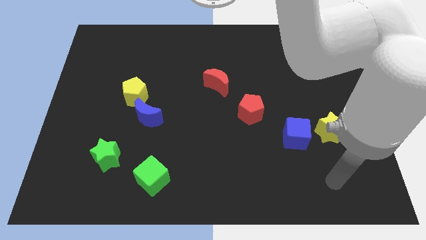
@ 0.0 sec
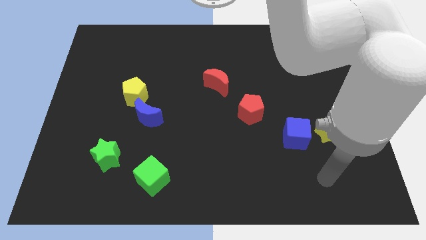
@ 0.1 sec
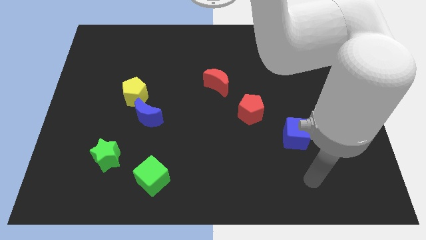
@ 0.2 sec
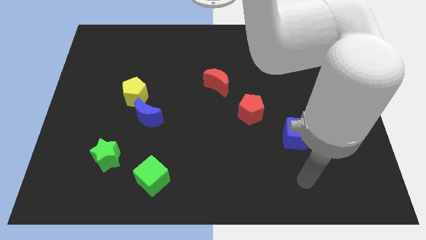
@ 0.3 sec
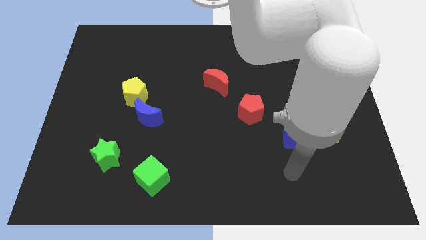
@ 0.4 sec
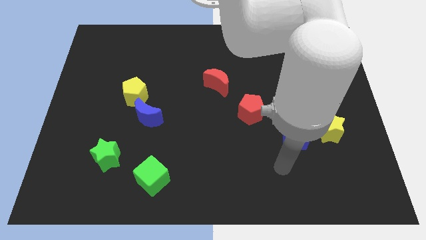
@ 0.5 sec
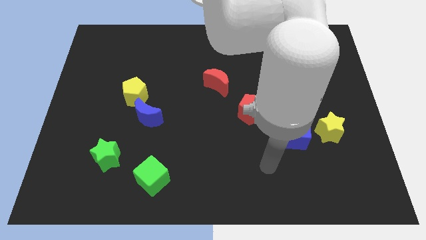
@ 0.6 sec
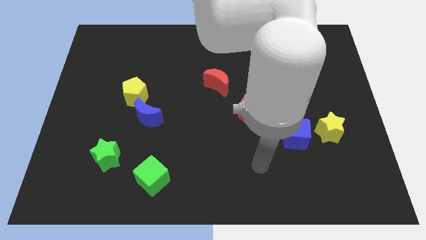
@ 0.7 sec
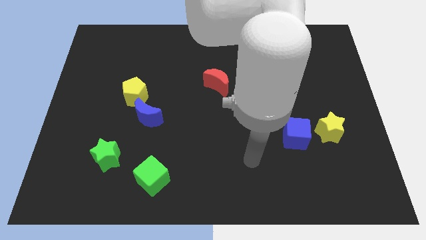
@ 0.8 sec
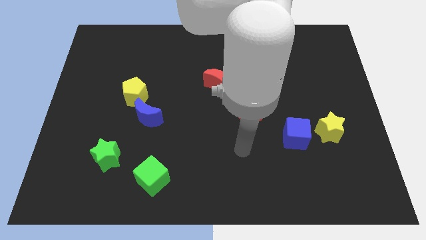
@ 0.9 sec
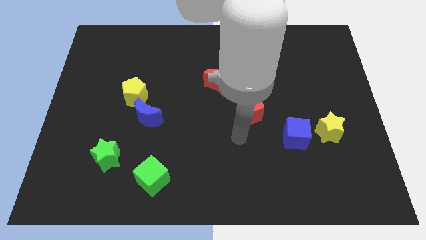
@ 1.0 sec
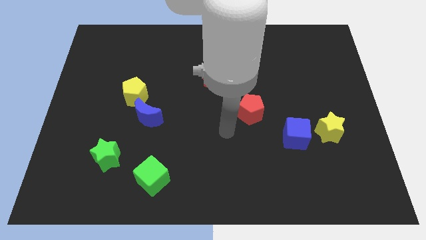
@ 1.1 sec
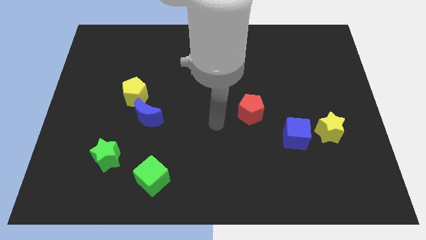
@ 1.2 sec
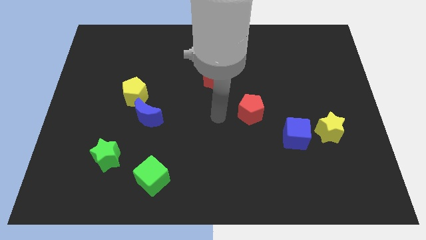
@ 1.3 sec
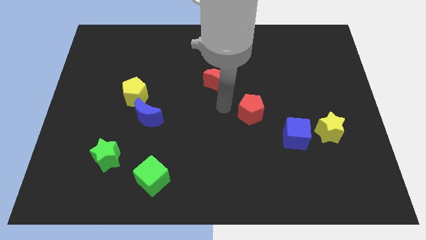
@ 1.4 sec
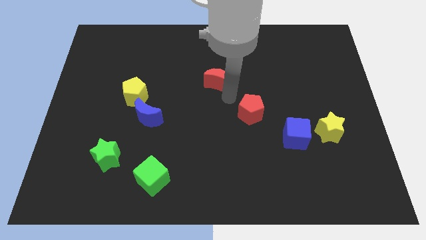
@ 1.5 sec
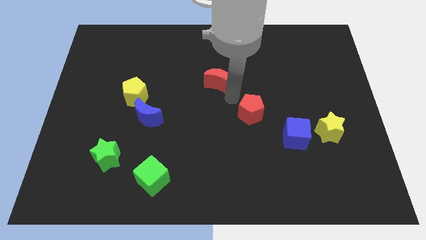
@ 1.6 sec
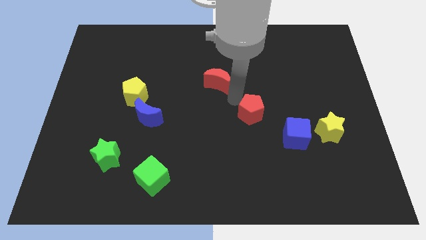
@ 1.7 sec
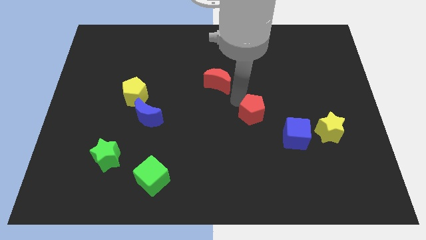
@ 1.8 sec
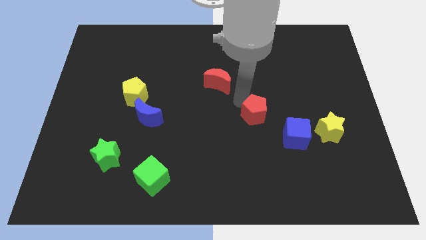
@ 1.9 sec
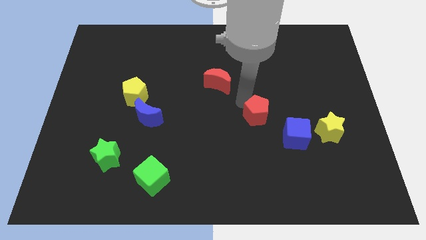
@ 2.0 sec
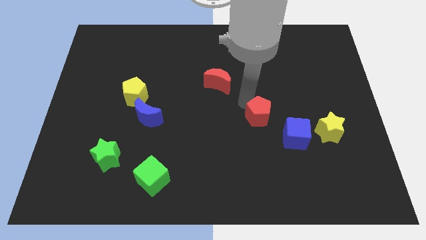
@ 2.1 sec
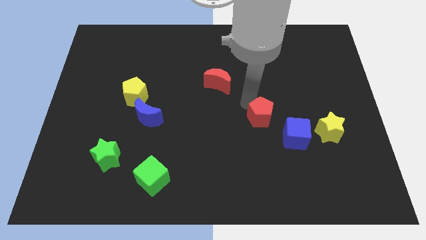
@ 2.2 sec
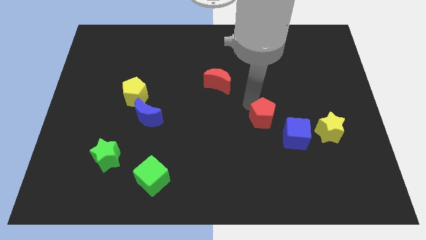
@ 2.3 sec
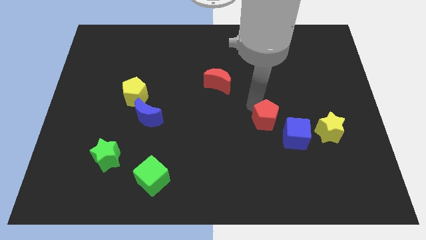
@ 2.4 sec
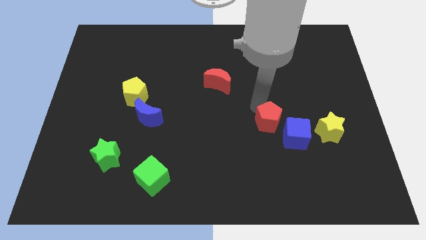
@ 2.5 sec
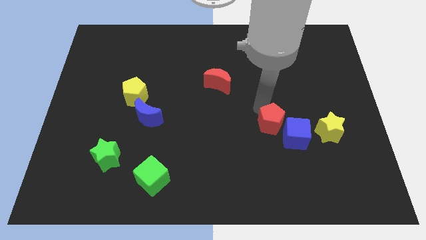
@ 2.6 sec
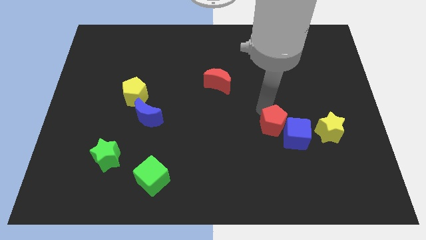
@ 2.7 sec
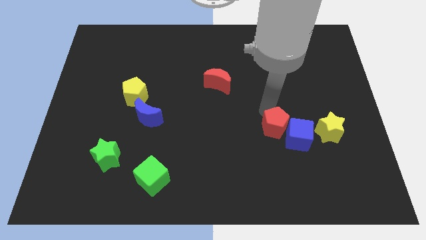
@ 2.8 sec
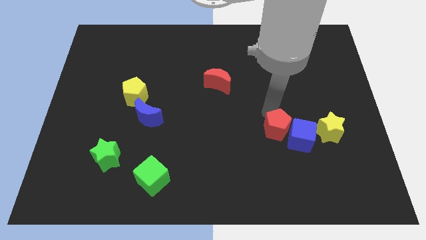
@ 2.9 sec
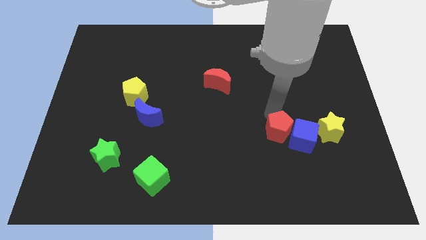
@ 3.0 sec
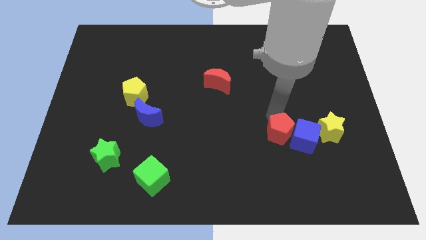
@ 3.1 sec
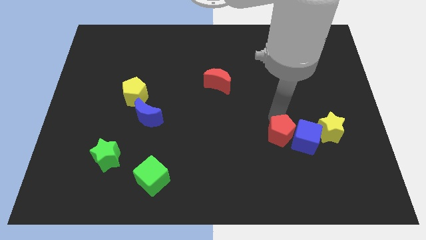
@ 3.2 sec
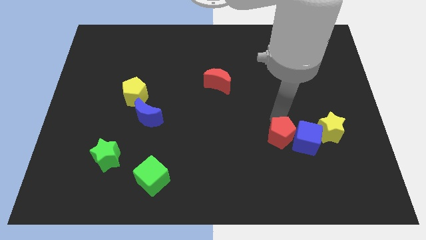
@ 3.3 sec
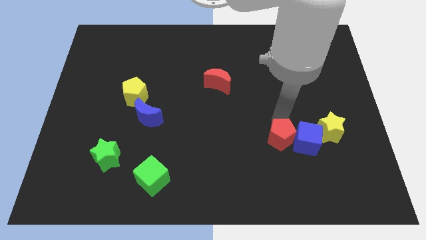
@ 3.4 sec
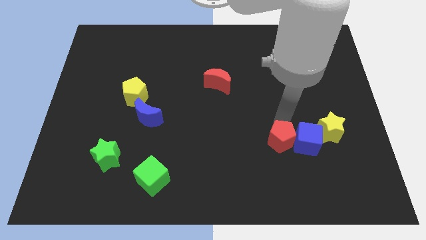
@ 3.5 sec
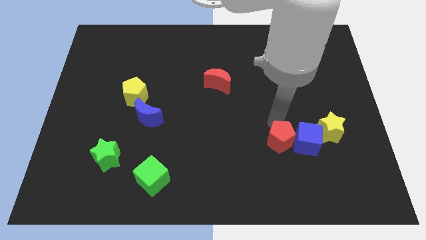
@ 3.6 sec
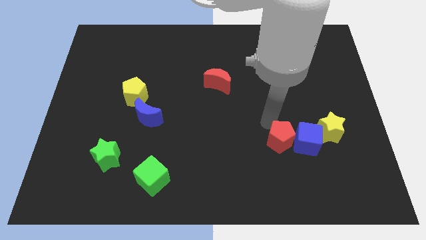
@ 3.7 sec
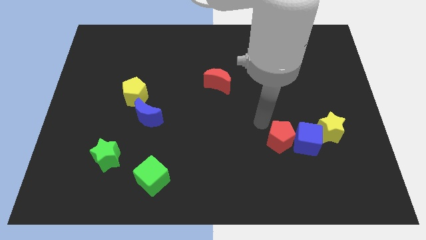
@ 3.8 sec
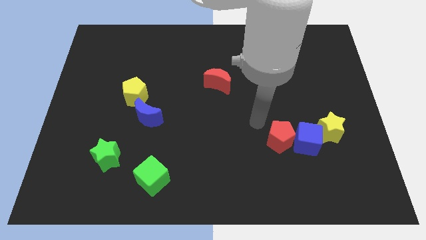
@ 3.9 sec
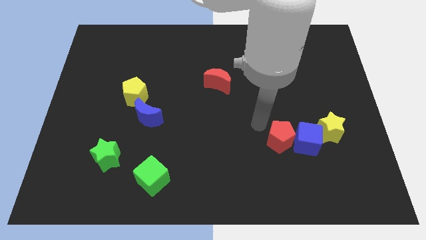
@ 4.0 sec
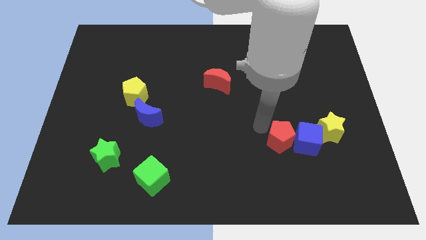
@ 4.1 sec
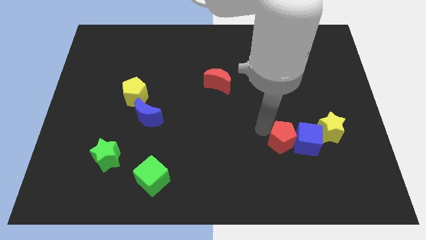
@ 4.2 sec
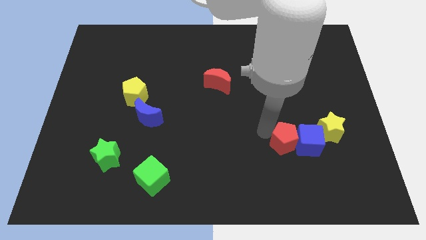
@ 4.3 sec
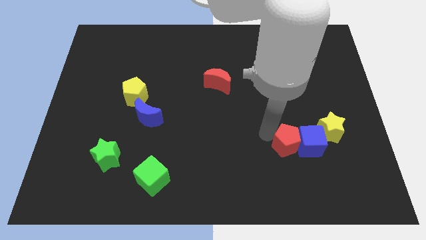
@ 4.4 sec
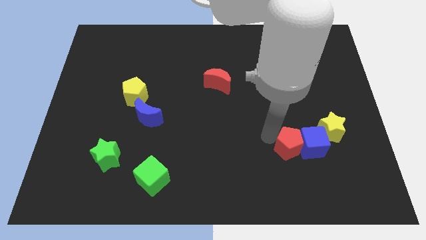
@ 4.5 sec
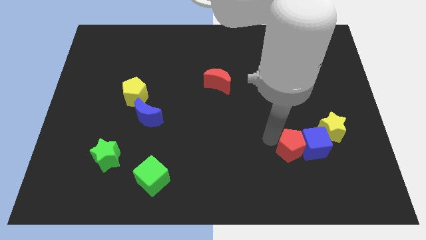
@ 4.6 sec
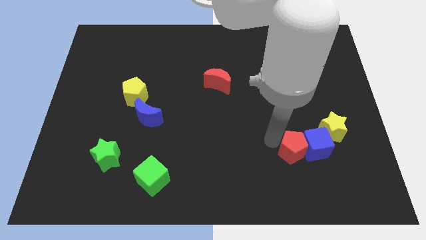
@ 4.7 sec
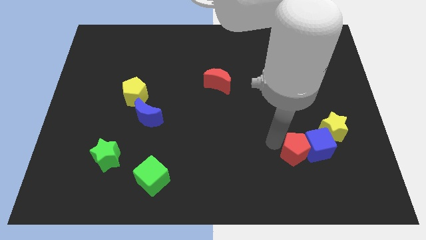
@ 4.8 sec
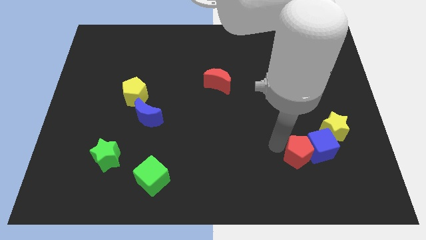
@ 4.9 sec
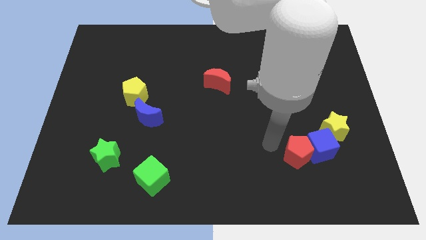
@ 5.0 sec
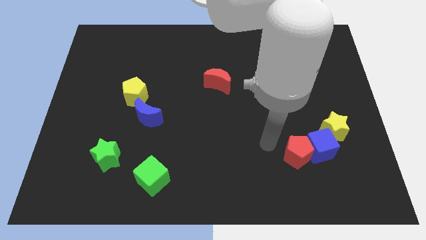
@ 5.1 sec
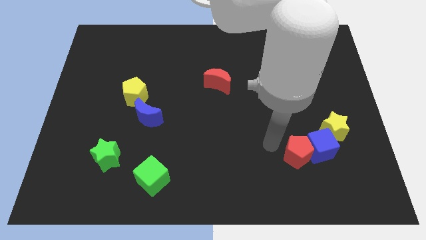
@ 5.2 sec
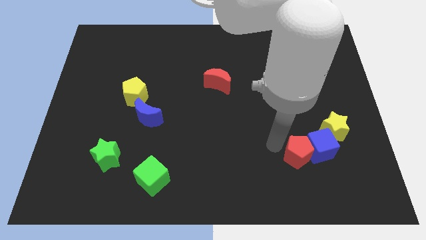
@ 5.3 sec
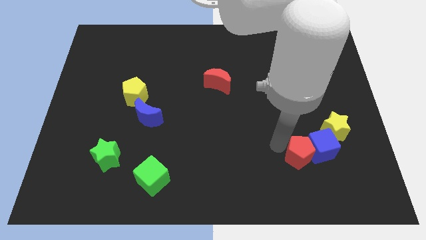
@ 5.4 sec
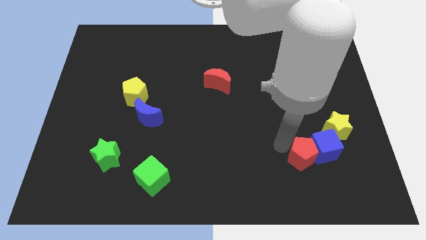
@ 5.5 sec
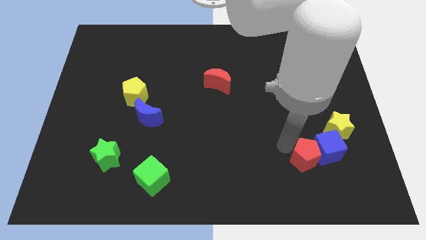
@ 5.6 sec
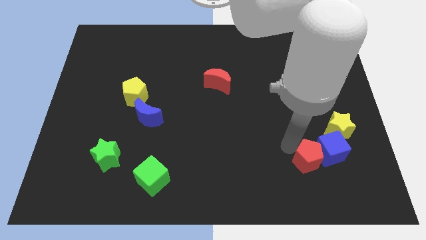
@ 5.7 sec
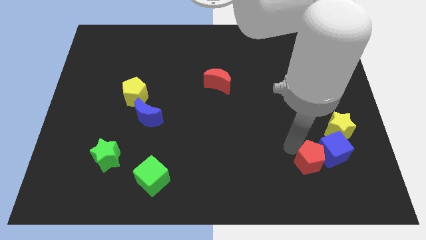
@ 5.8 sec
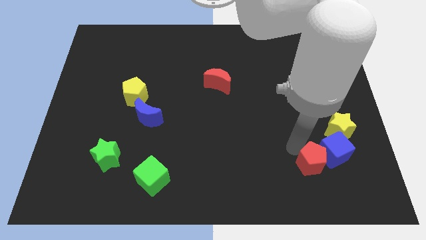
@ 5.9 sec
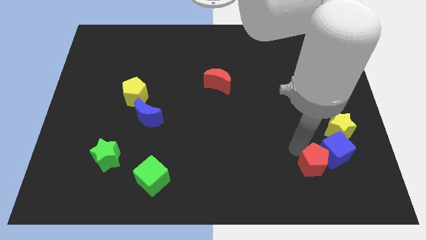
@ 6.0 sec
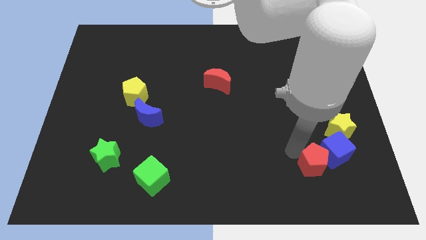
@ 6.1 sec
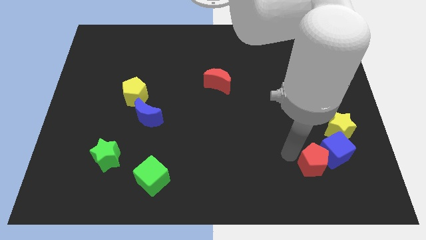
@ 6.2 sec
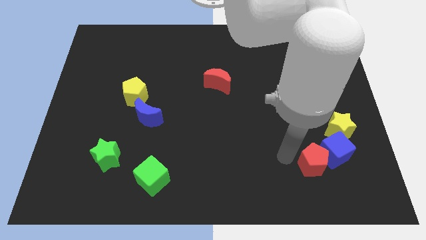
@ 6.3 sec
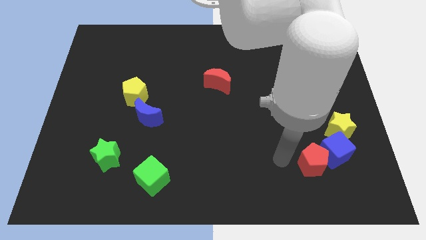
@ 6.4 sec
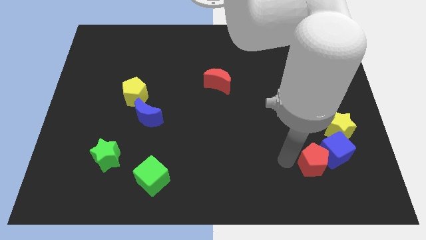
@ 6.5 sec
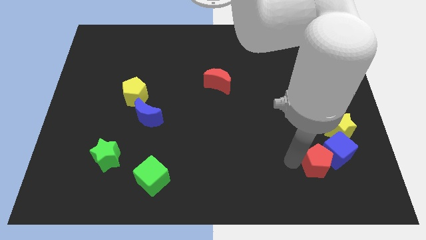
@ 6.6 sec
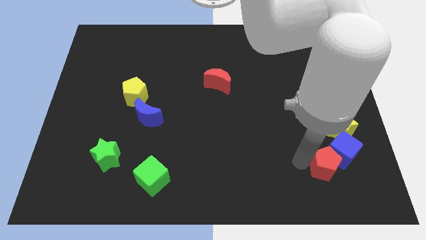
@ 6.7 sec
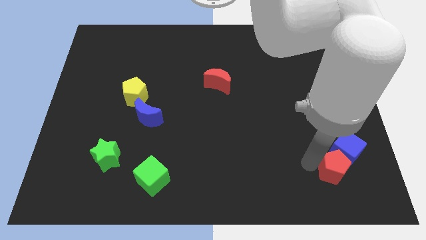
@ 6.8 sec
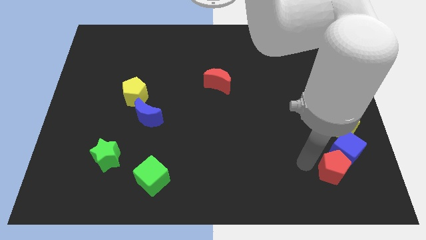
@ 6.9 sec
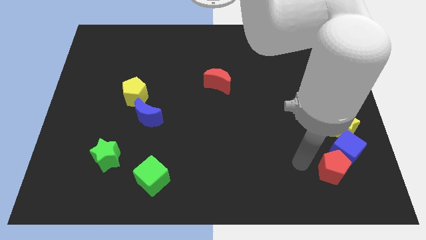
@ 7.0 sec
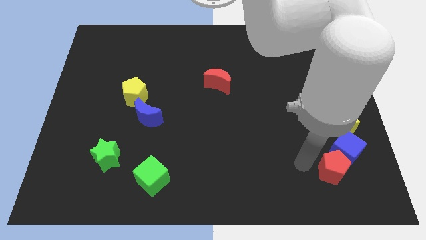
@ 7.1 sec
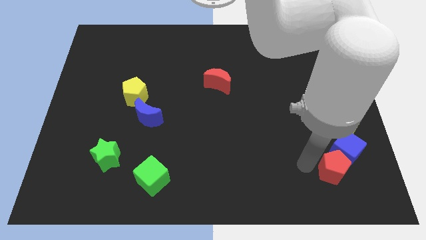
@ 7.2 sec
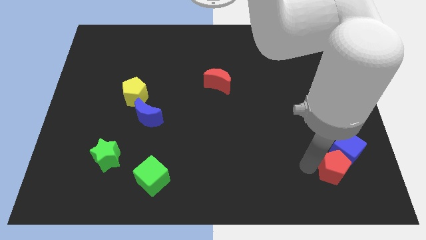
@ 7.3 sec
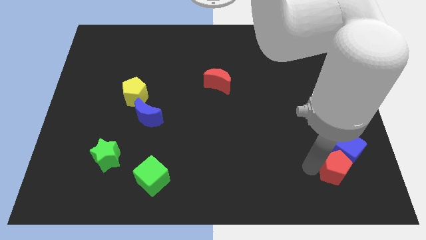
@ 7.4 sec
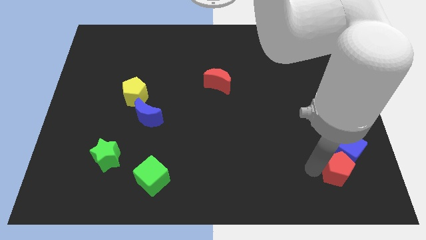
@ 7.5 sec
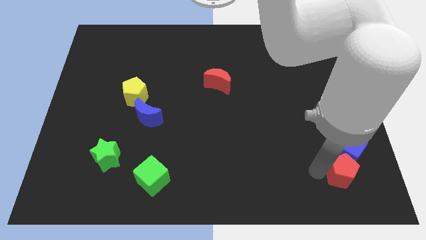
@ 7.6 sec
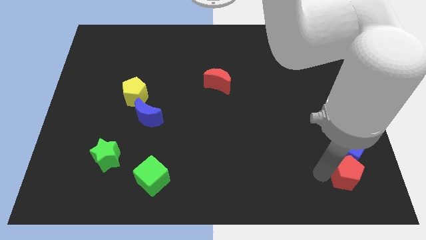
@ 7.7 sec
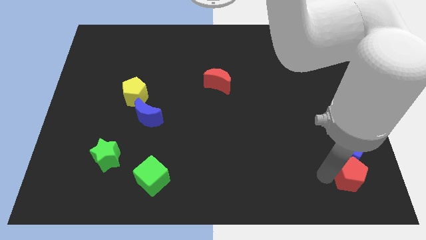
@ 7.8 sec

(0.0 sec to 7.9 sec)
move the red pentagon to the bottom right corner

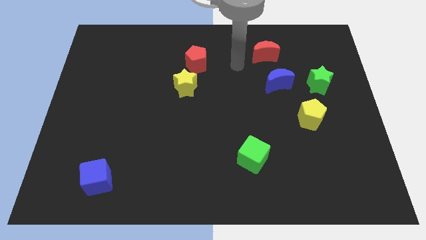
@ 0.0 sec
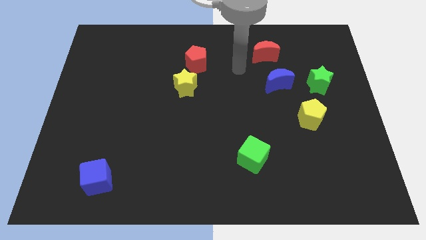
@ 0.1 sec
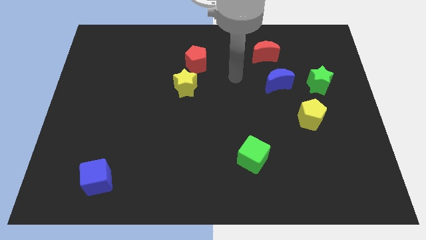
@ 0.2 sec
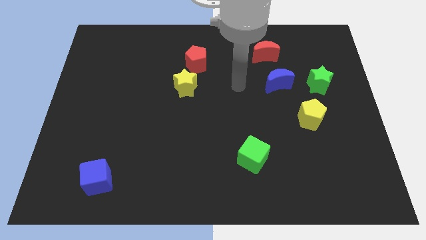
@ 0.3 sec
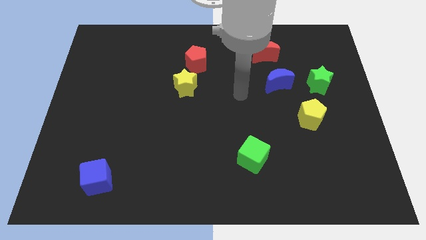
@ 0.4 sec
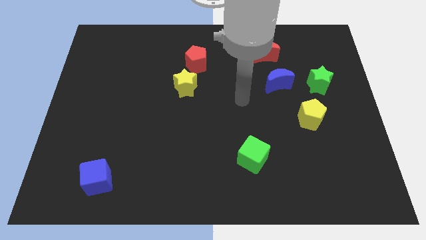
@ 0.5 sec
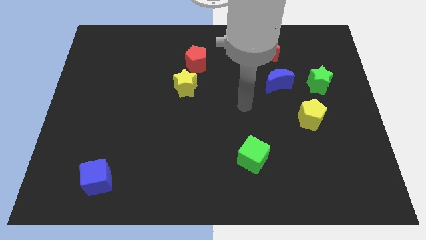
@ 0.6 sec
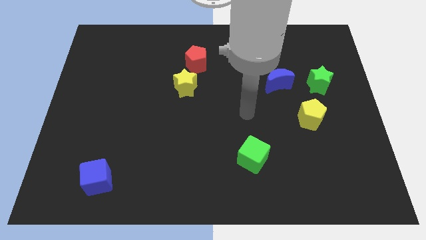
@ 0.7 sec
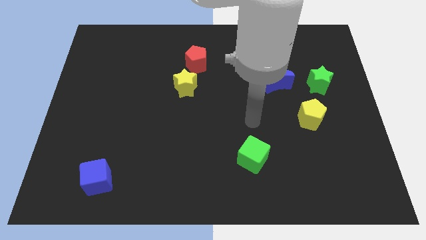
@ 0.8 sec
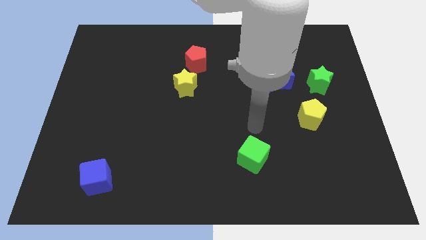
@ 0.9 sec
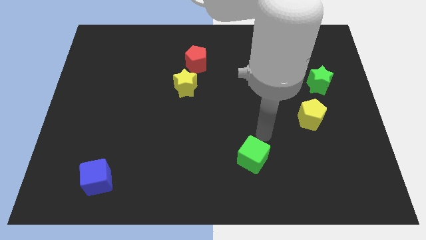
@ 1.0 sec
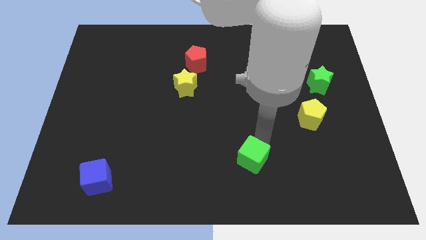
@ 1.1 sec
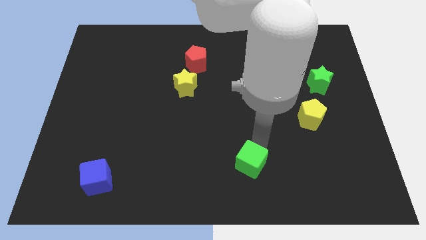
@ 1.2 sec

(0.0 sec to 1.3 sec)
slide the green cube to the bottom side
